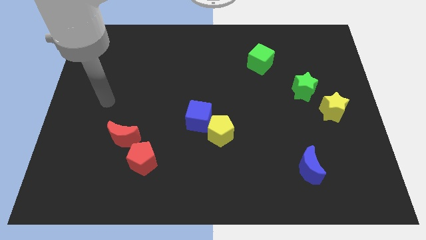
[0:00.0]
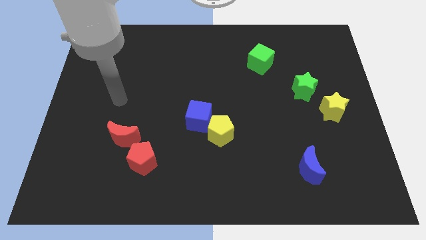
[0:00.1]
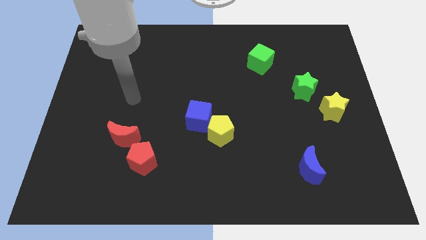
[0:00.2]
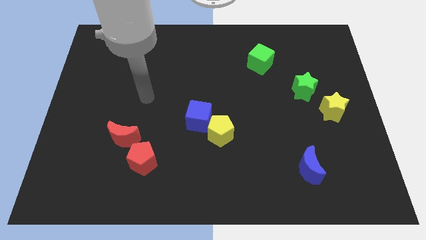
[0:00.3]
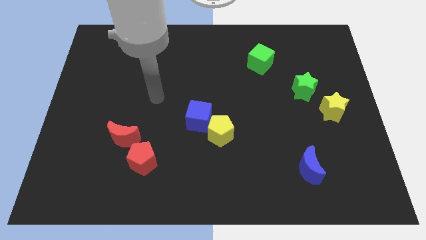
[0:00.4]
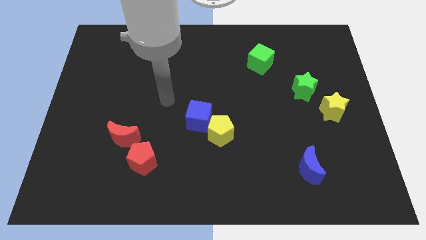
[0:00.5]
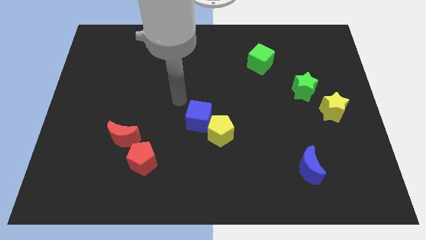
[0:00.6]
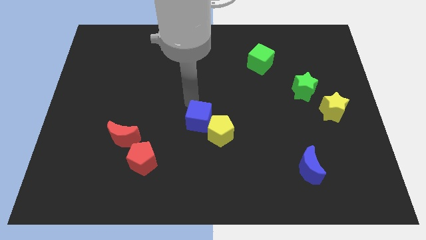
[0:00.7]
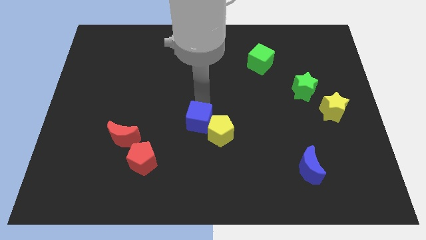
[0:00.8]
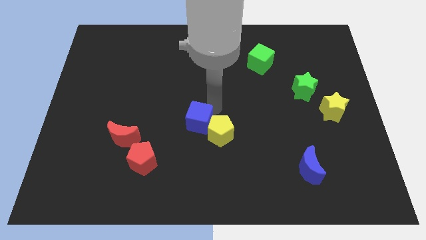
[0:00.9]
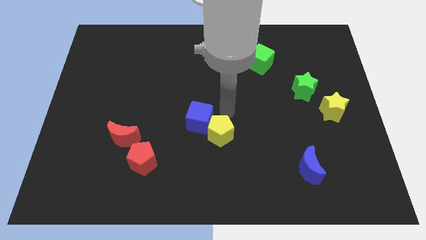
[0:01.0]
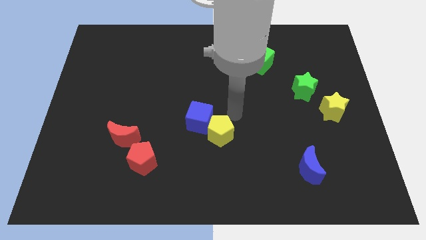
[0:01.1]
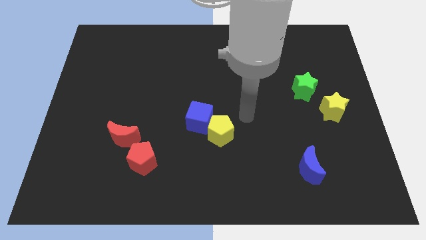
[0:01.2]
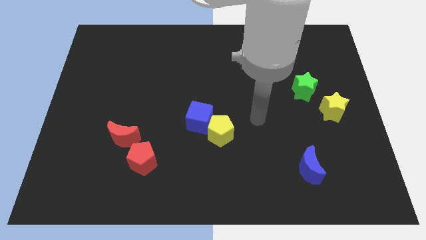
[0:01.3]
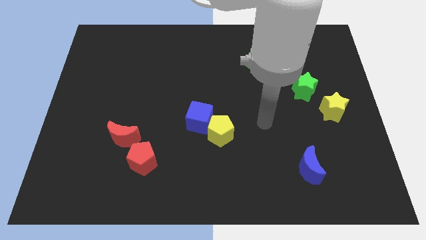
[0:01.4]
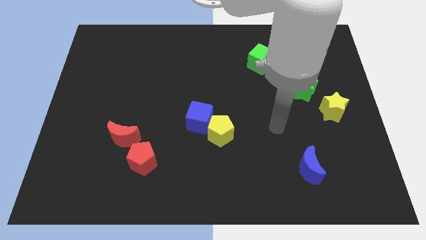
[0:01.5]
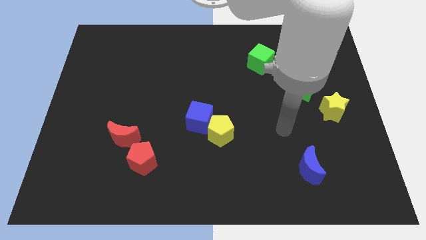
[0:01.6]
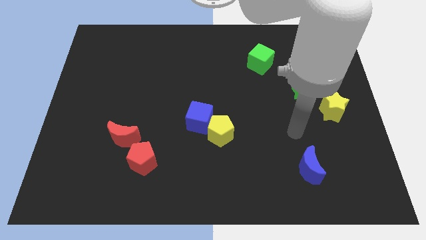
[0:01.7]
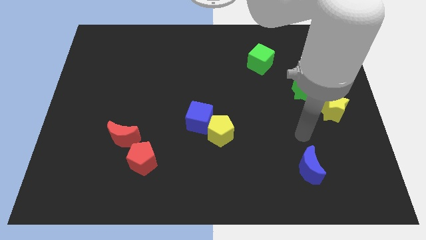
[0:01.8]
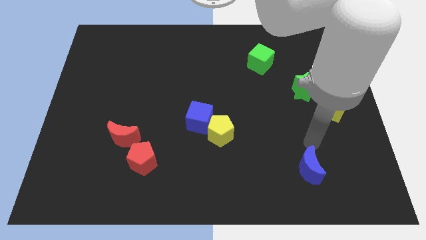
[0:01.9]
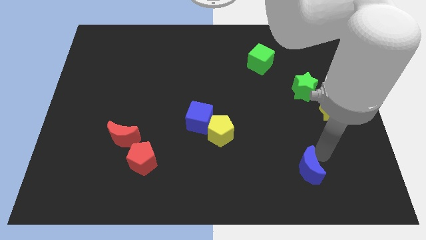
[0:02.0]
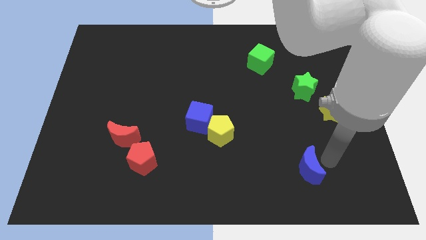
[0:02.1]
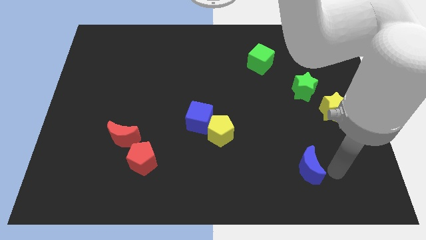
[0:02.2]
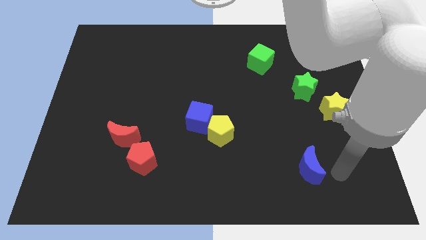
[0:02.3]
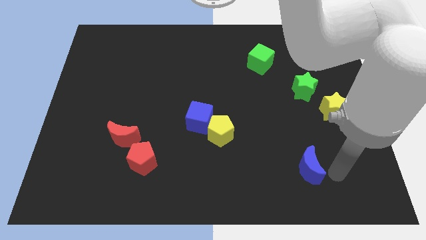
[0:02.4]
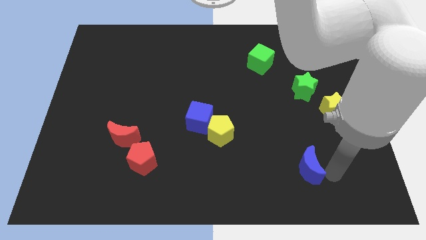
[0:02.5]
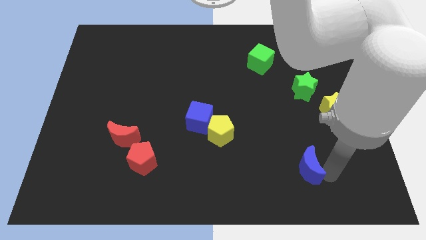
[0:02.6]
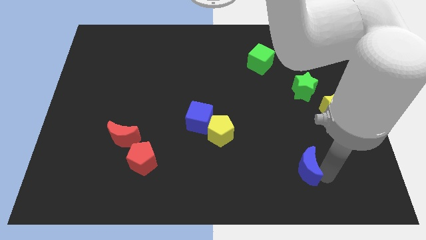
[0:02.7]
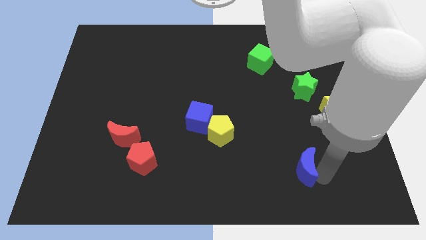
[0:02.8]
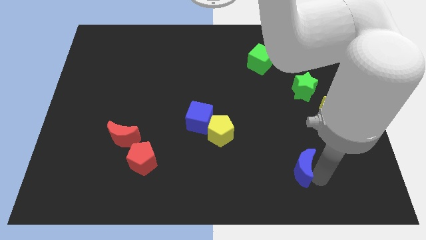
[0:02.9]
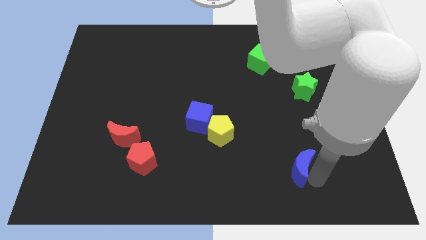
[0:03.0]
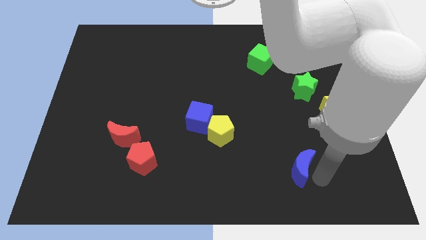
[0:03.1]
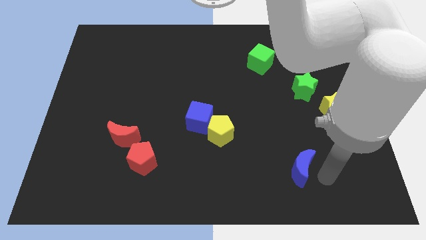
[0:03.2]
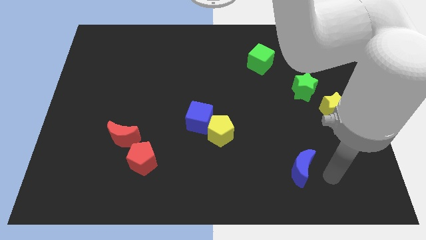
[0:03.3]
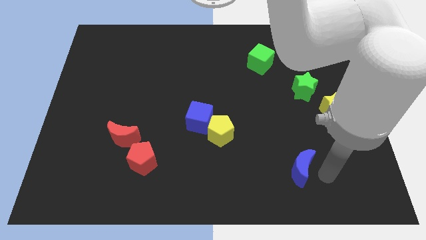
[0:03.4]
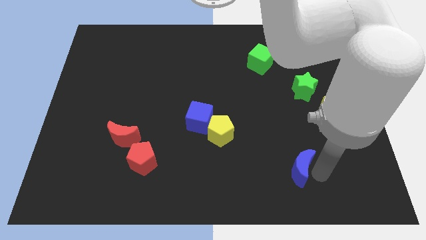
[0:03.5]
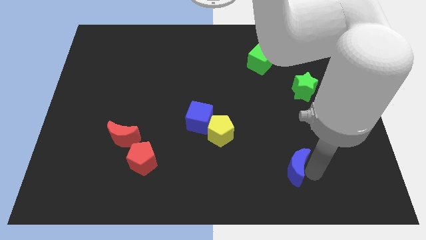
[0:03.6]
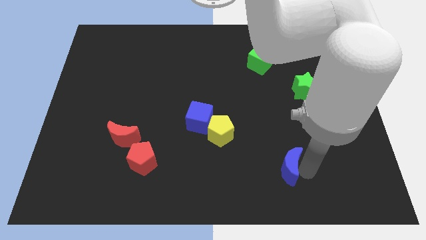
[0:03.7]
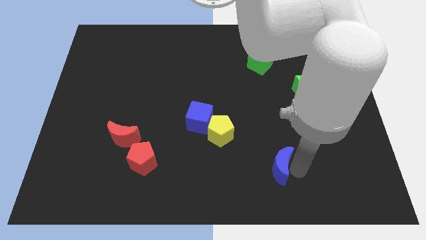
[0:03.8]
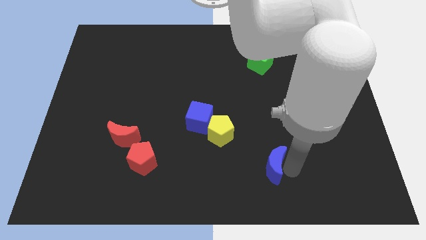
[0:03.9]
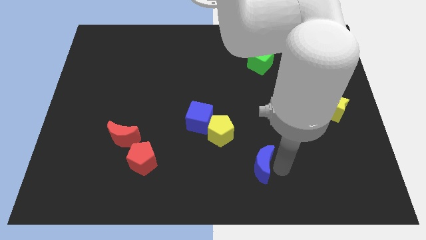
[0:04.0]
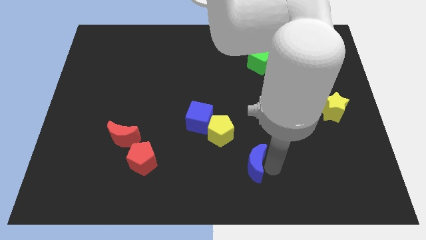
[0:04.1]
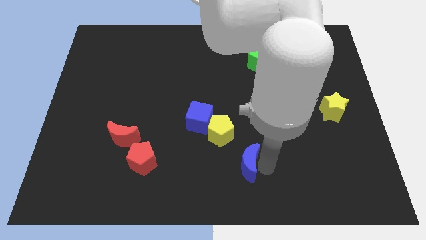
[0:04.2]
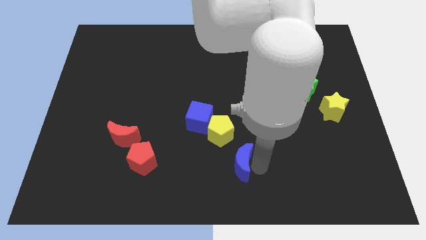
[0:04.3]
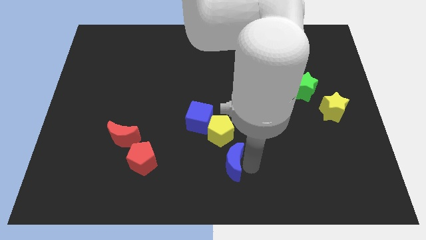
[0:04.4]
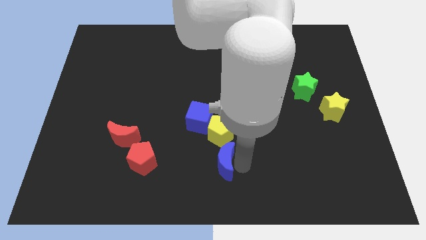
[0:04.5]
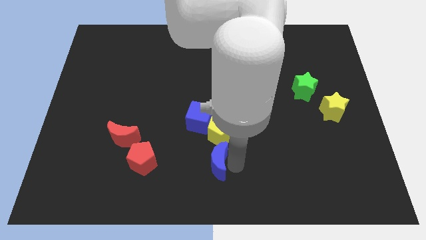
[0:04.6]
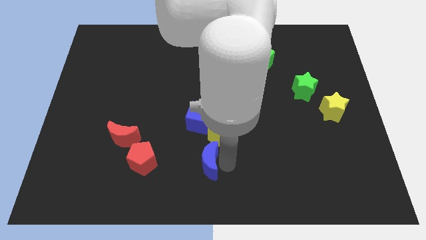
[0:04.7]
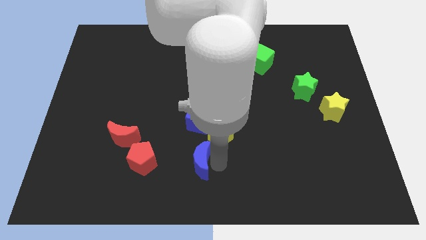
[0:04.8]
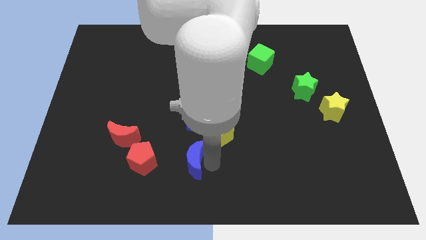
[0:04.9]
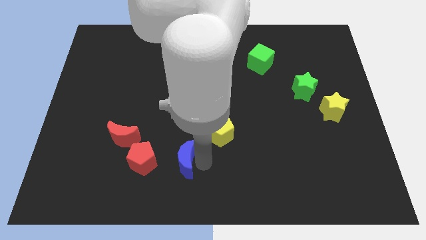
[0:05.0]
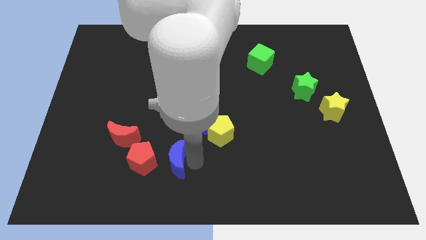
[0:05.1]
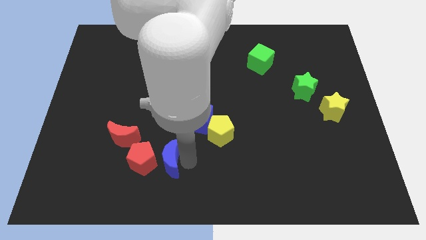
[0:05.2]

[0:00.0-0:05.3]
slide the blue moon towards the red pentagon

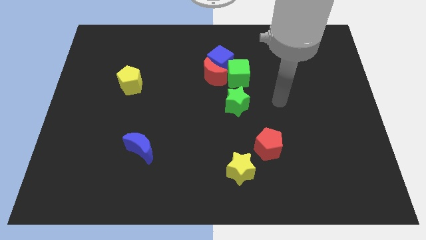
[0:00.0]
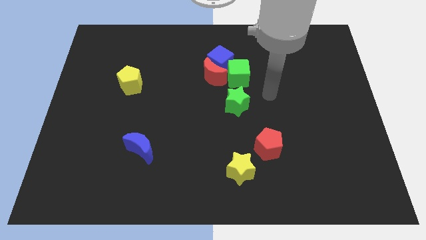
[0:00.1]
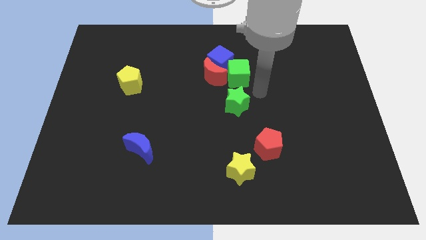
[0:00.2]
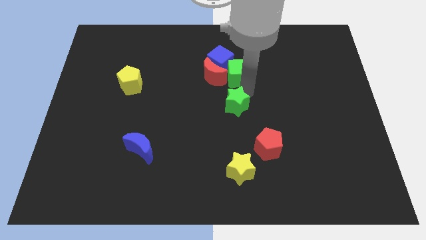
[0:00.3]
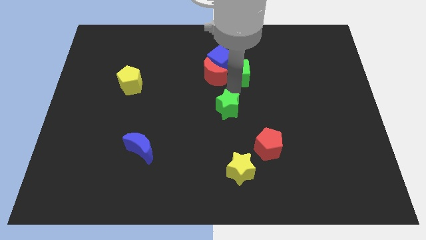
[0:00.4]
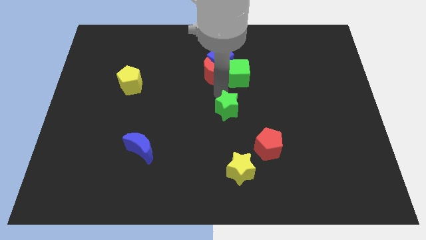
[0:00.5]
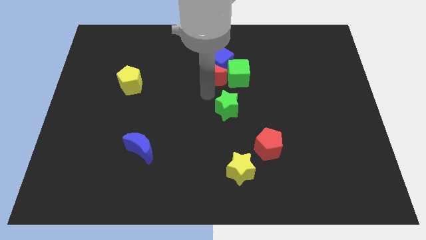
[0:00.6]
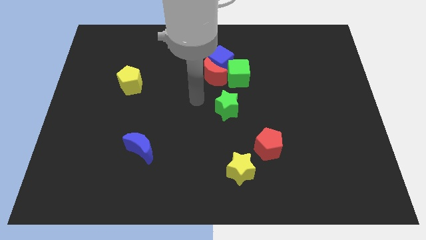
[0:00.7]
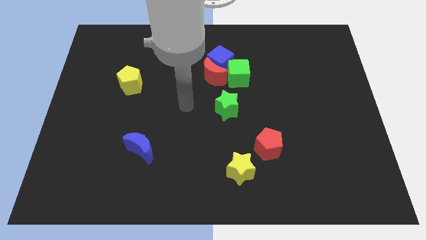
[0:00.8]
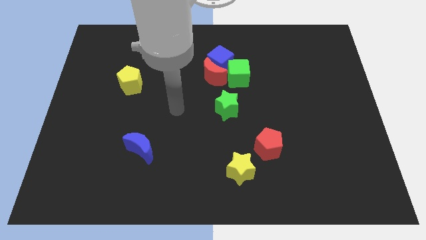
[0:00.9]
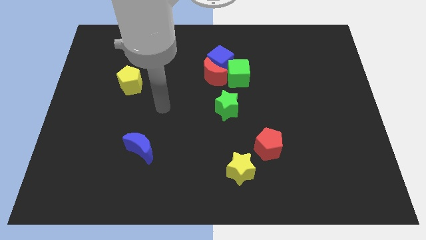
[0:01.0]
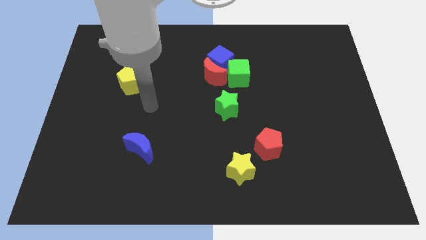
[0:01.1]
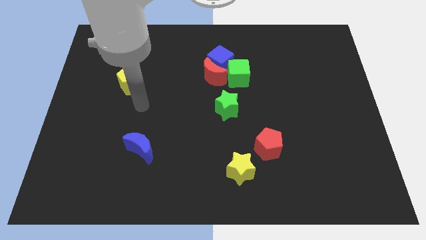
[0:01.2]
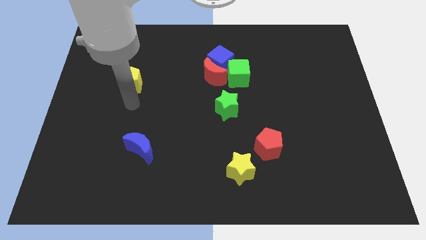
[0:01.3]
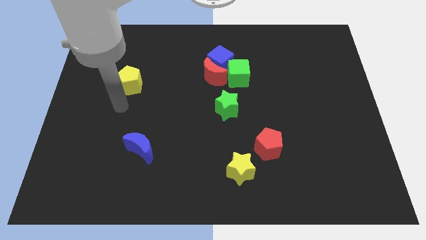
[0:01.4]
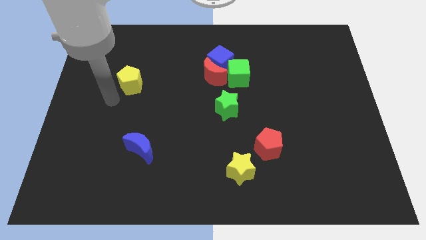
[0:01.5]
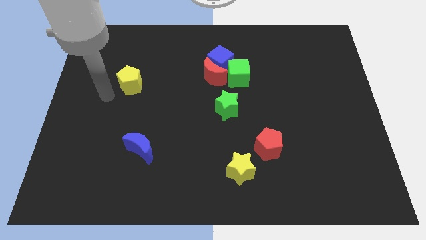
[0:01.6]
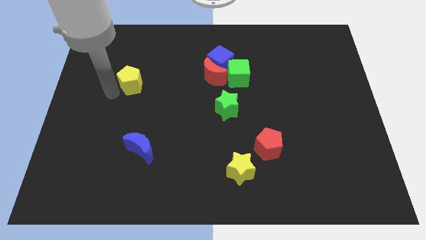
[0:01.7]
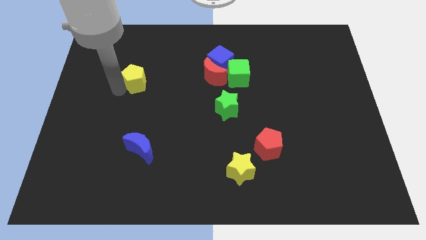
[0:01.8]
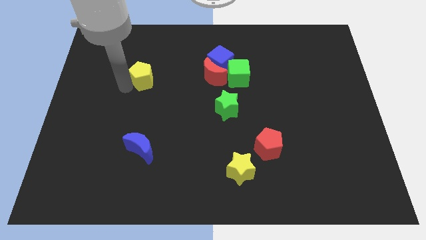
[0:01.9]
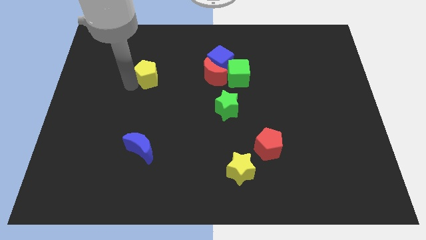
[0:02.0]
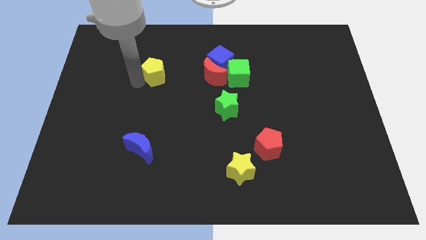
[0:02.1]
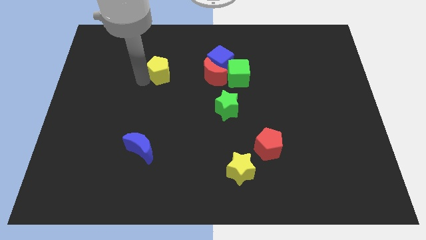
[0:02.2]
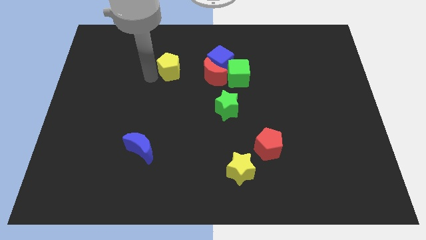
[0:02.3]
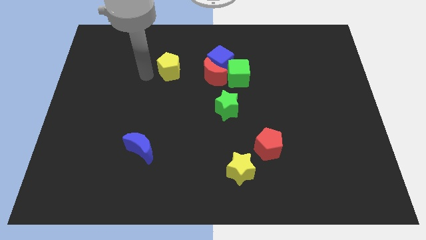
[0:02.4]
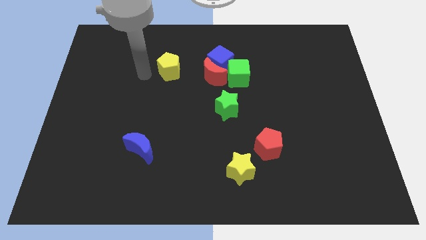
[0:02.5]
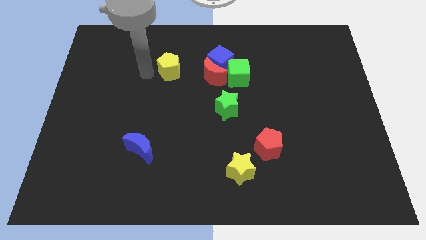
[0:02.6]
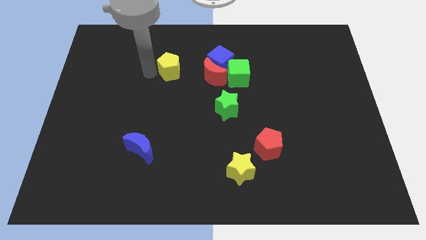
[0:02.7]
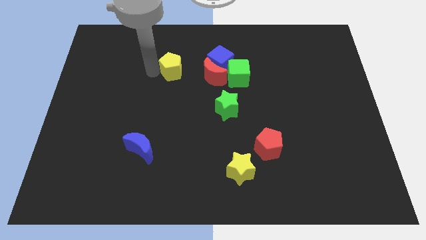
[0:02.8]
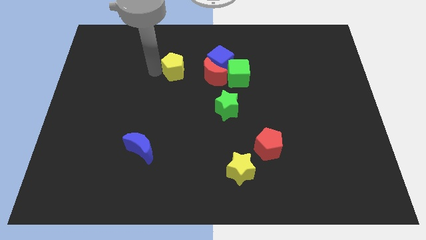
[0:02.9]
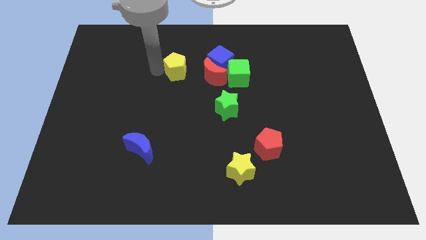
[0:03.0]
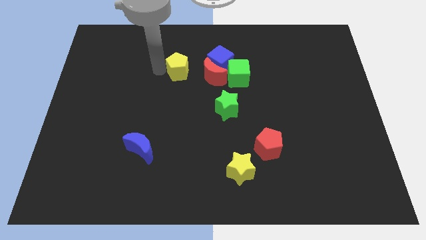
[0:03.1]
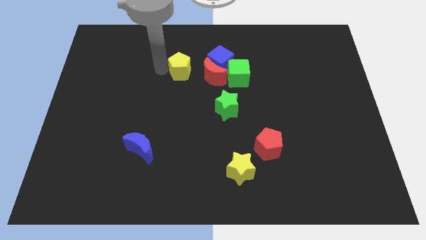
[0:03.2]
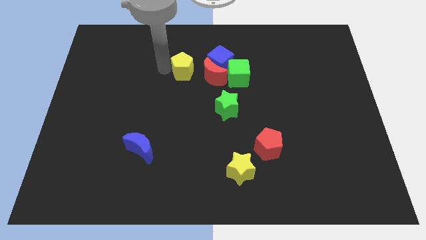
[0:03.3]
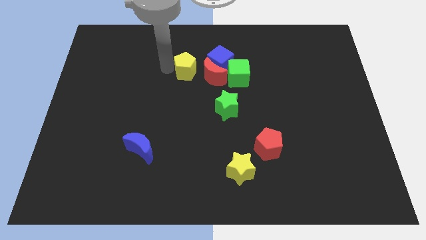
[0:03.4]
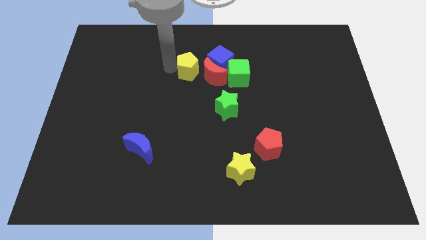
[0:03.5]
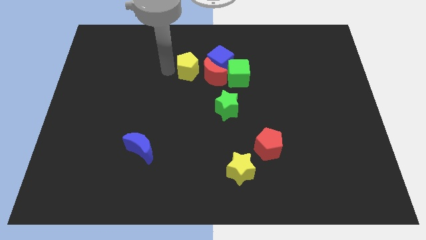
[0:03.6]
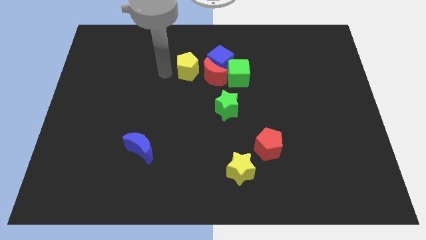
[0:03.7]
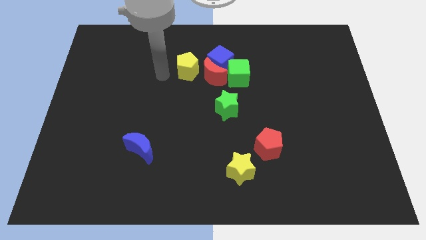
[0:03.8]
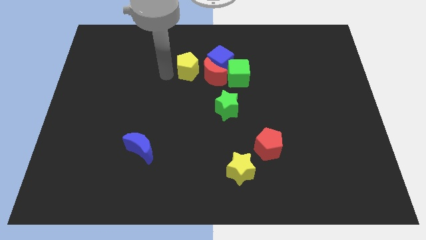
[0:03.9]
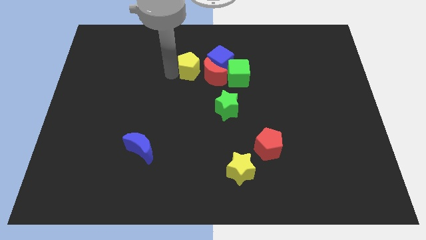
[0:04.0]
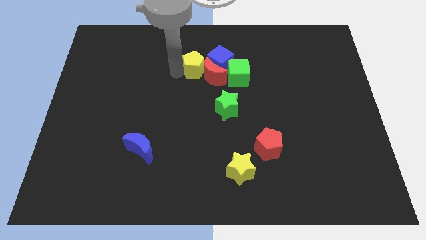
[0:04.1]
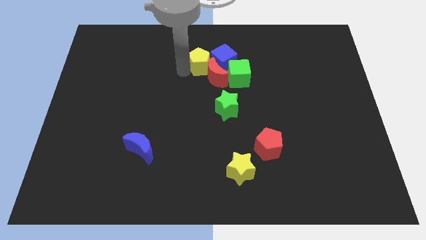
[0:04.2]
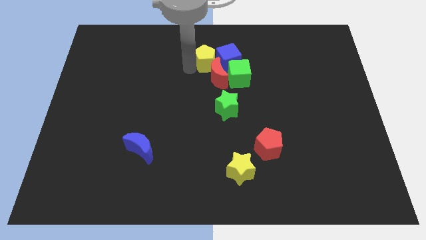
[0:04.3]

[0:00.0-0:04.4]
put the yellow pentagon to the blue cube
